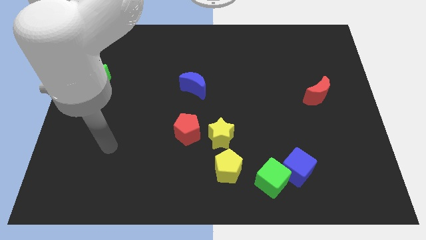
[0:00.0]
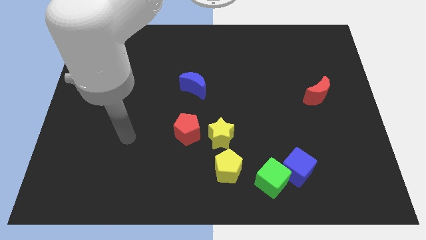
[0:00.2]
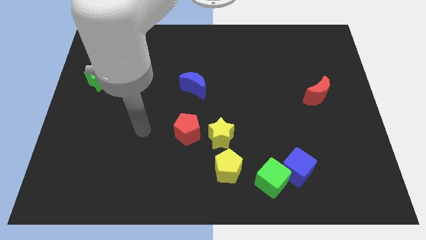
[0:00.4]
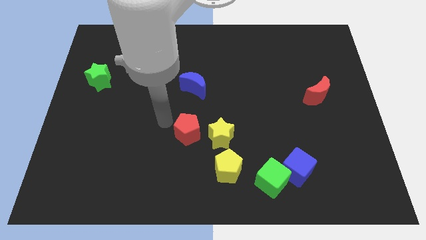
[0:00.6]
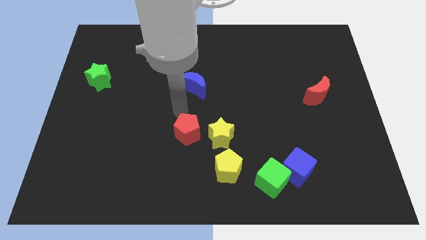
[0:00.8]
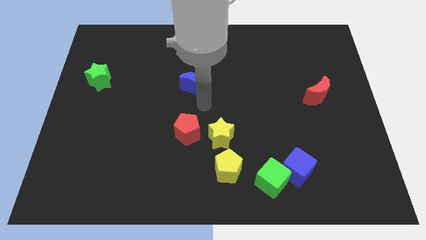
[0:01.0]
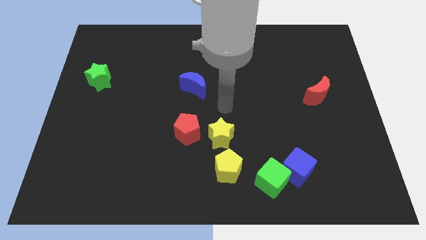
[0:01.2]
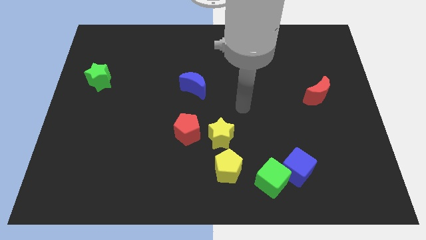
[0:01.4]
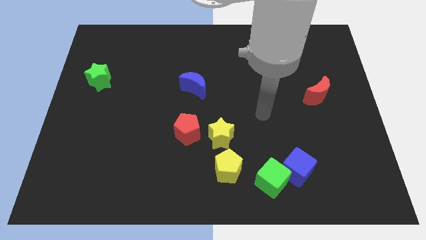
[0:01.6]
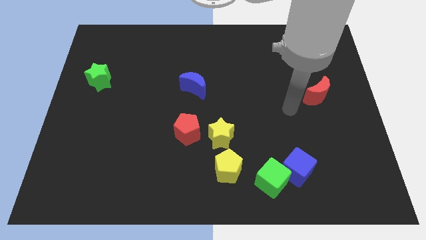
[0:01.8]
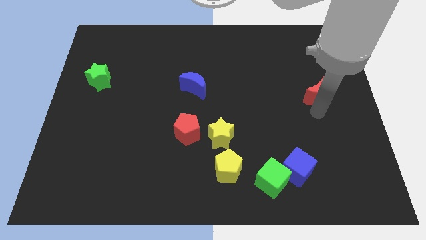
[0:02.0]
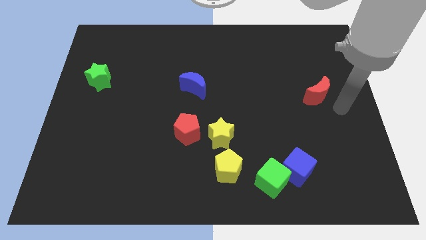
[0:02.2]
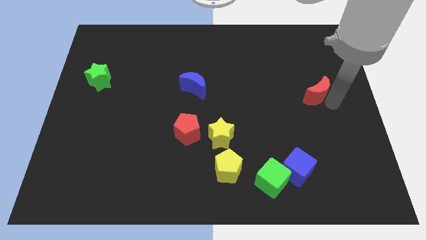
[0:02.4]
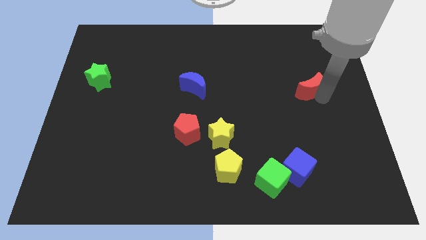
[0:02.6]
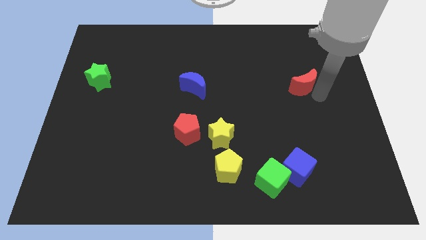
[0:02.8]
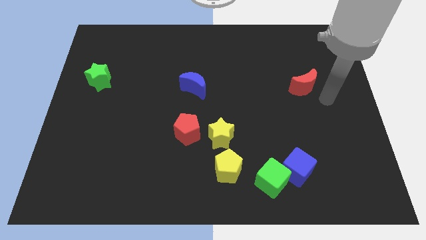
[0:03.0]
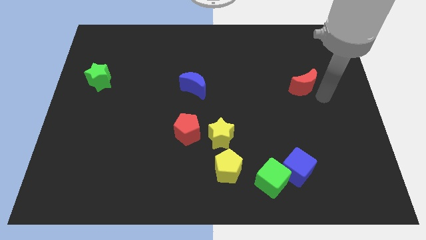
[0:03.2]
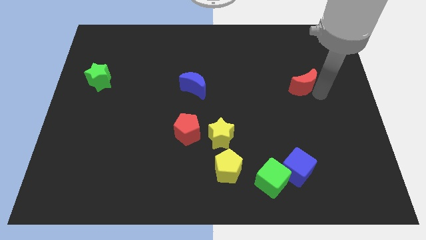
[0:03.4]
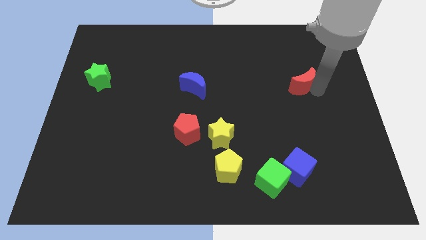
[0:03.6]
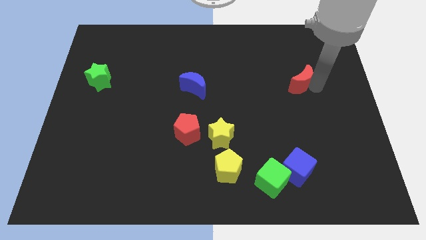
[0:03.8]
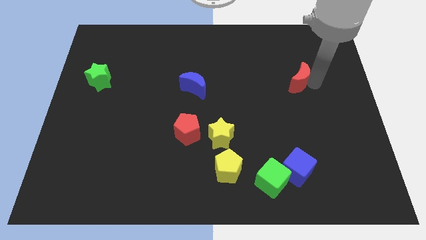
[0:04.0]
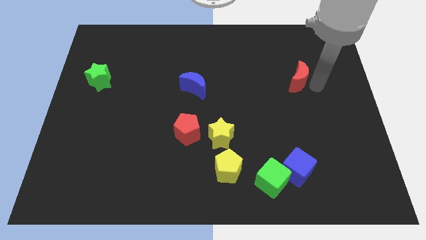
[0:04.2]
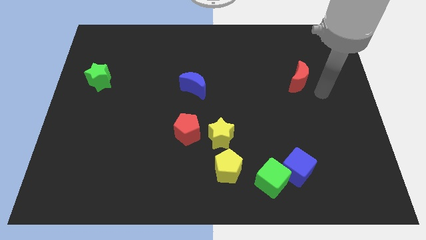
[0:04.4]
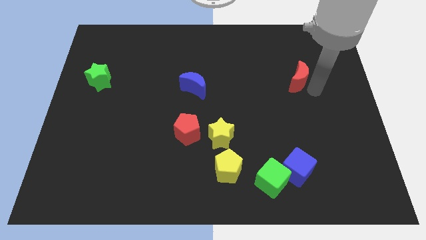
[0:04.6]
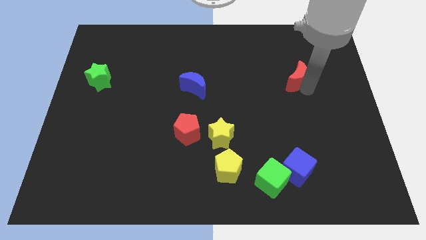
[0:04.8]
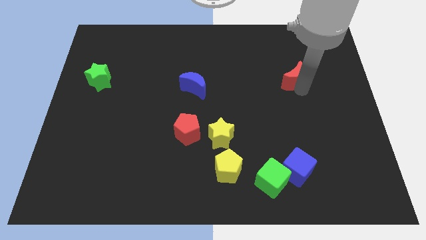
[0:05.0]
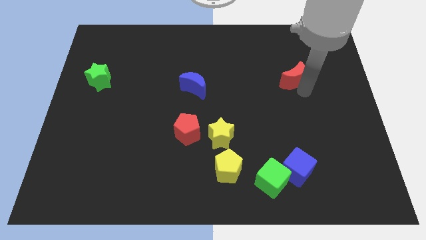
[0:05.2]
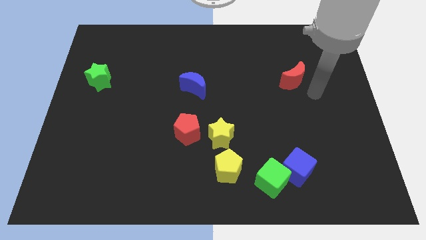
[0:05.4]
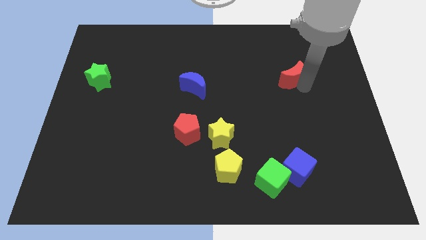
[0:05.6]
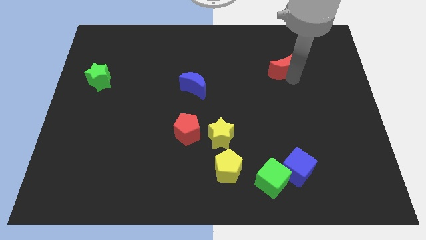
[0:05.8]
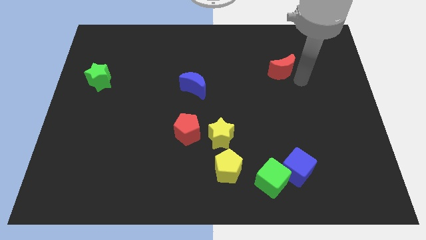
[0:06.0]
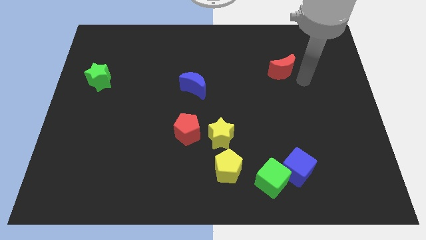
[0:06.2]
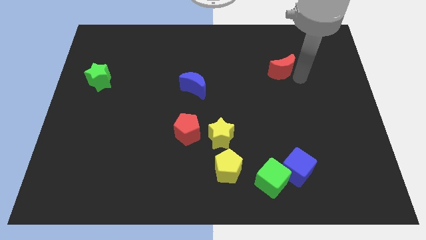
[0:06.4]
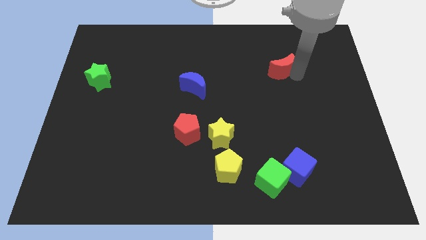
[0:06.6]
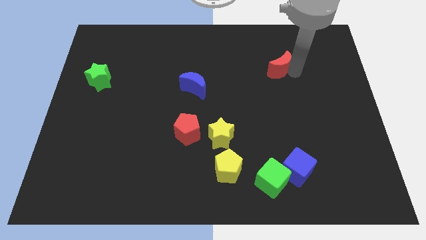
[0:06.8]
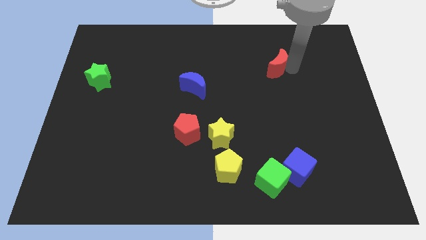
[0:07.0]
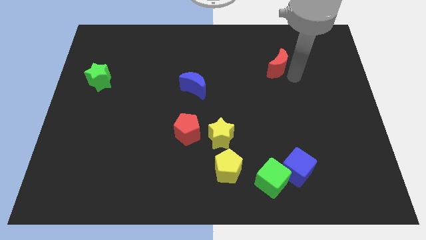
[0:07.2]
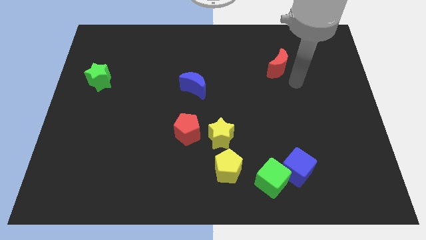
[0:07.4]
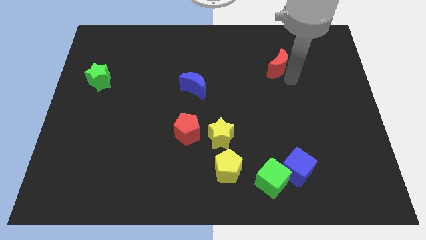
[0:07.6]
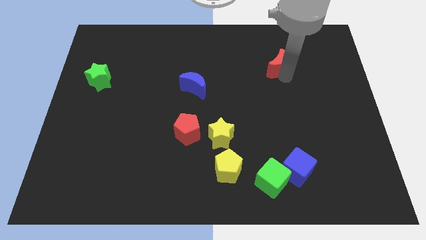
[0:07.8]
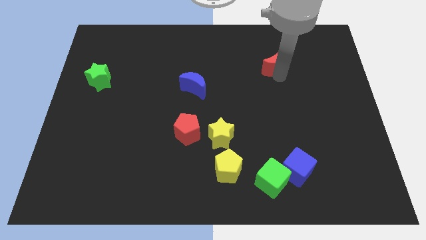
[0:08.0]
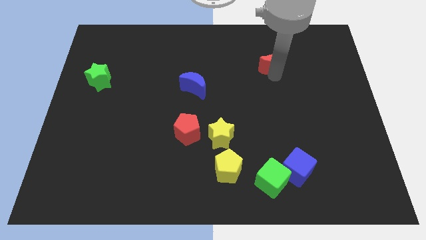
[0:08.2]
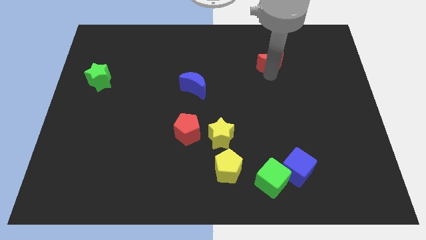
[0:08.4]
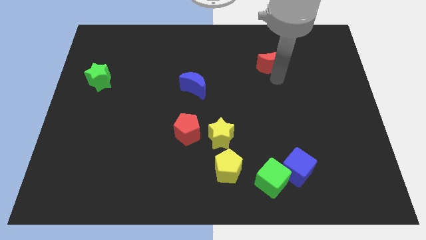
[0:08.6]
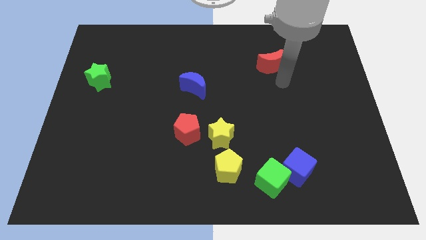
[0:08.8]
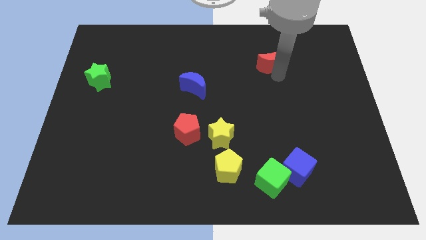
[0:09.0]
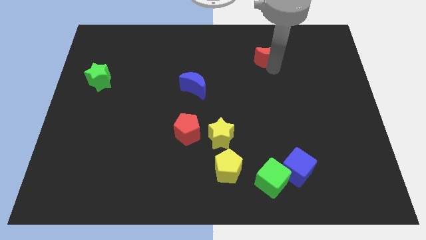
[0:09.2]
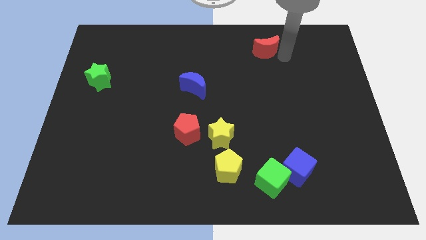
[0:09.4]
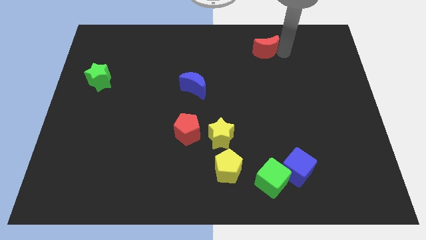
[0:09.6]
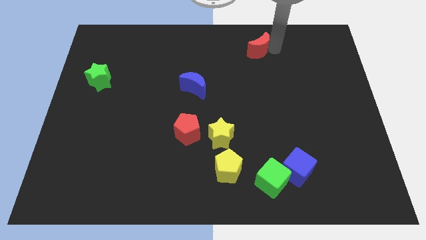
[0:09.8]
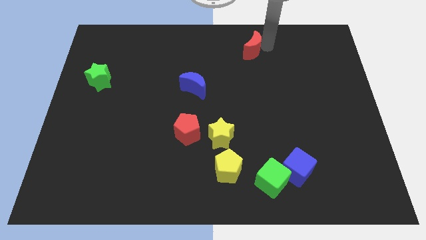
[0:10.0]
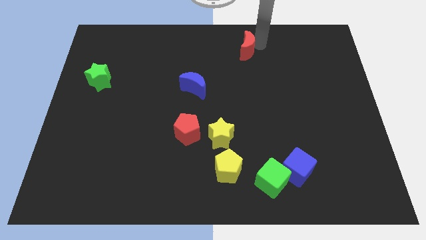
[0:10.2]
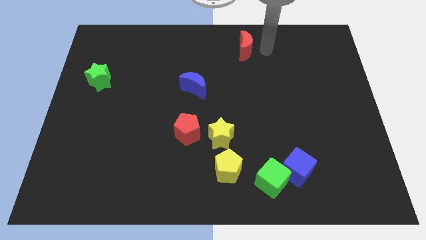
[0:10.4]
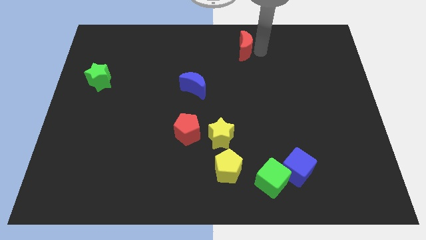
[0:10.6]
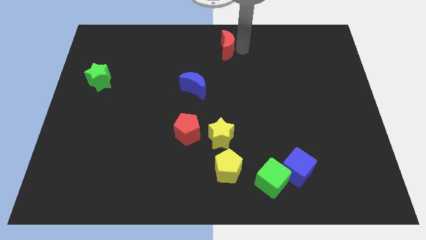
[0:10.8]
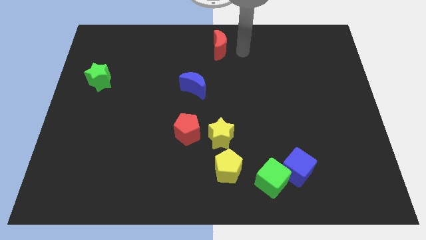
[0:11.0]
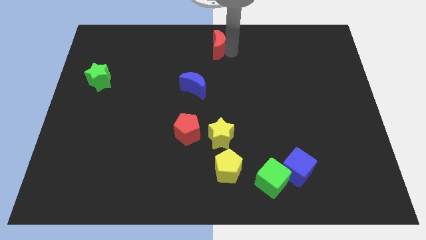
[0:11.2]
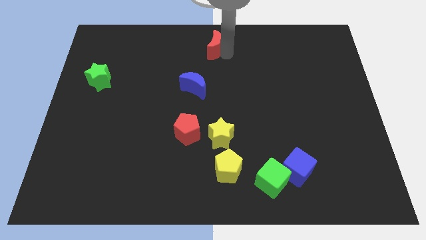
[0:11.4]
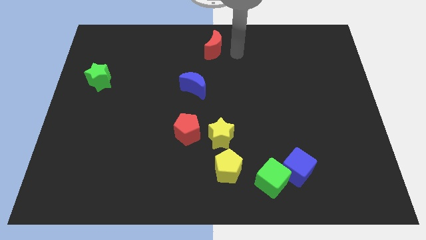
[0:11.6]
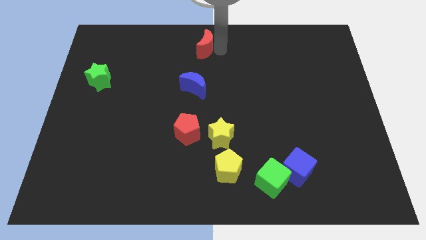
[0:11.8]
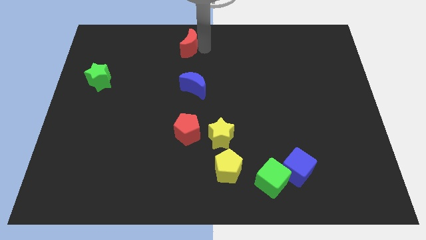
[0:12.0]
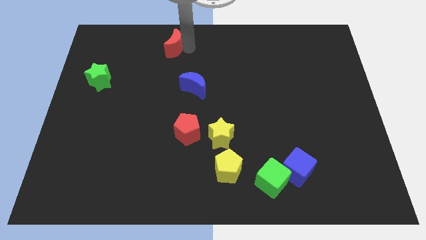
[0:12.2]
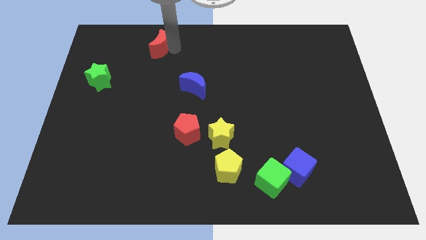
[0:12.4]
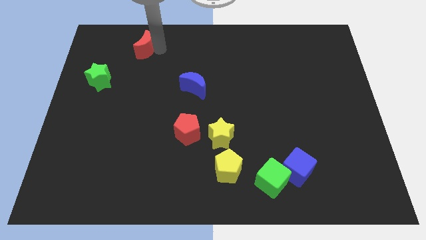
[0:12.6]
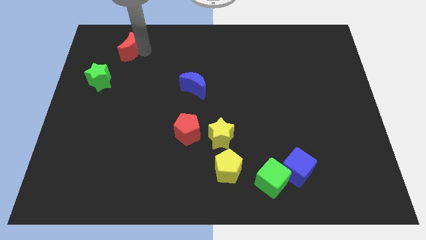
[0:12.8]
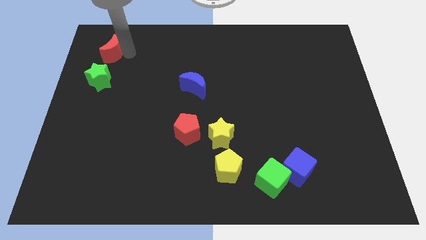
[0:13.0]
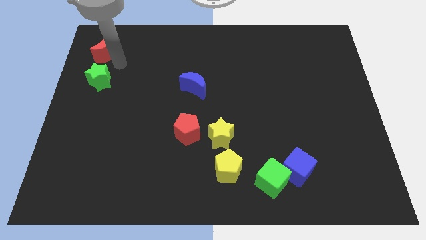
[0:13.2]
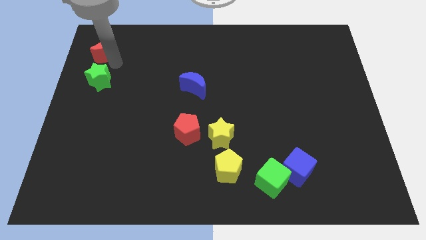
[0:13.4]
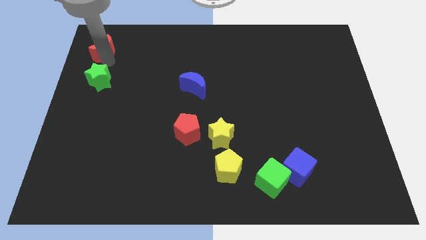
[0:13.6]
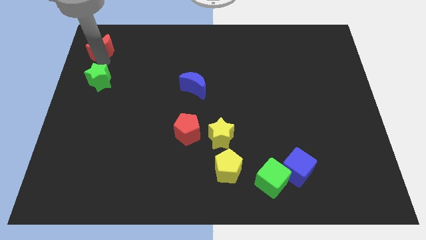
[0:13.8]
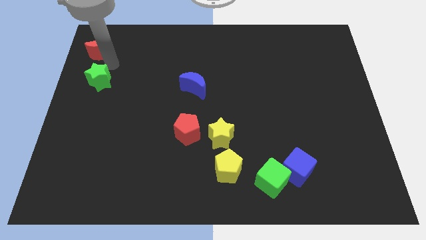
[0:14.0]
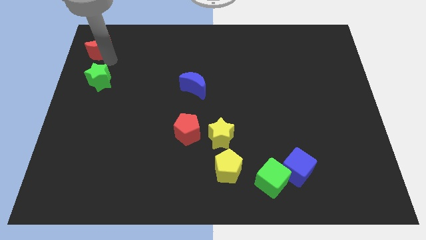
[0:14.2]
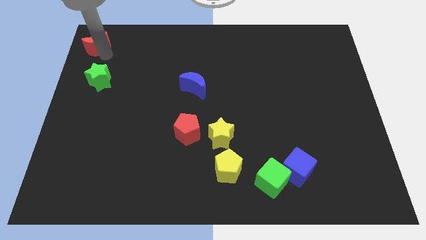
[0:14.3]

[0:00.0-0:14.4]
slide the red moon to the top left
